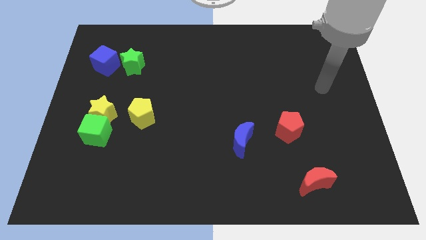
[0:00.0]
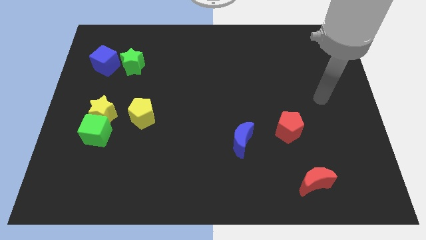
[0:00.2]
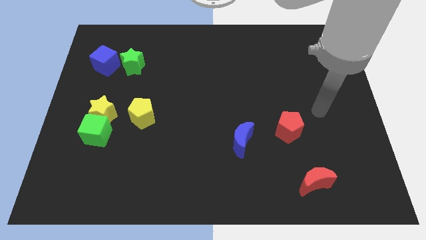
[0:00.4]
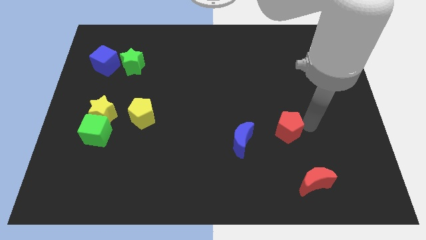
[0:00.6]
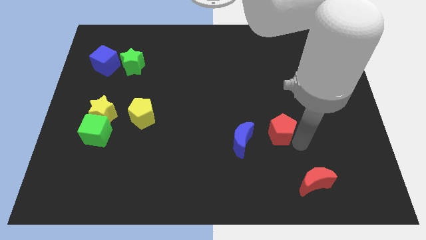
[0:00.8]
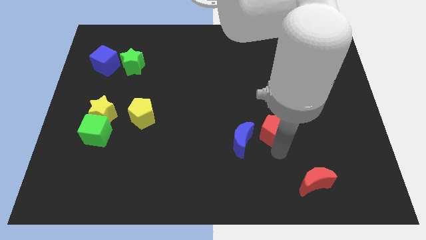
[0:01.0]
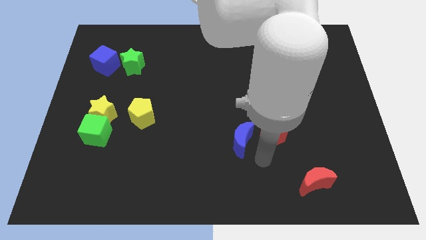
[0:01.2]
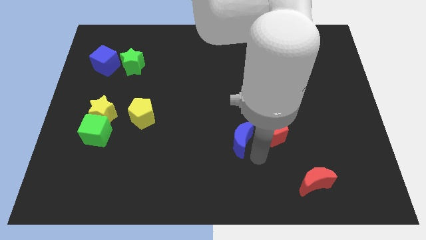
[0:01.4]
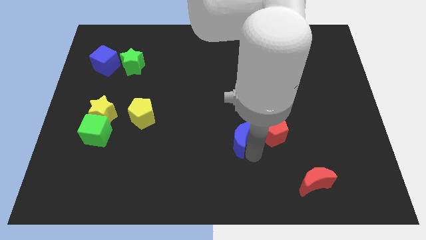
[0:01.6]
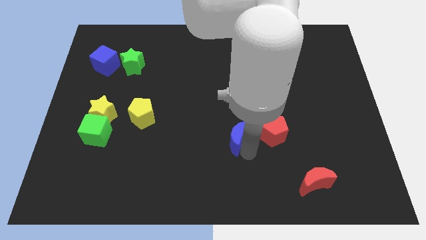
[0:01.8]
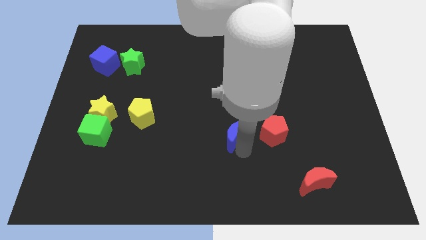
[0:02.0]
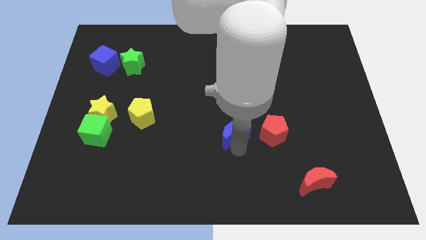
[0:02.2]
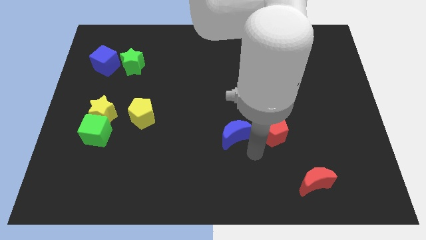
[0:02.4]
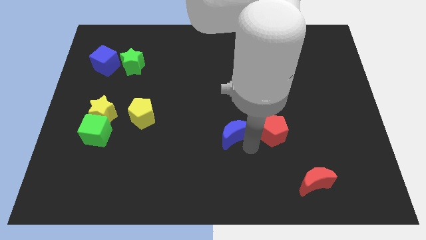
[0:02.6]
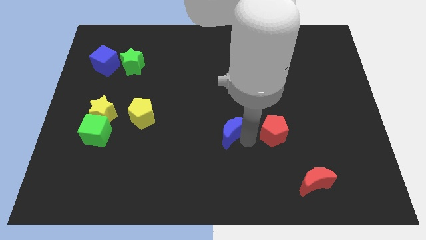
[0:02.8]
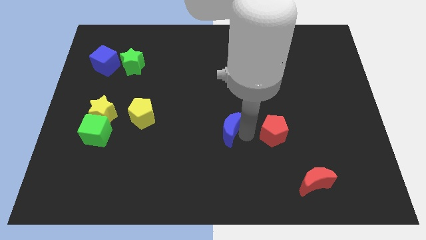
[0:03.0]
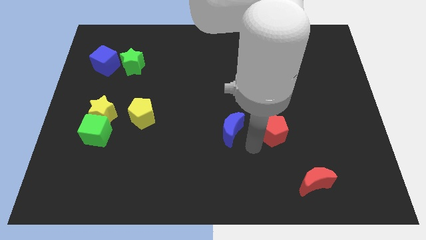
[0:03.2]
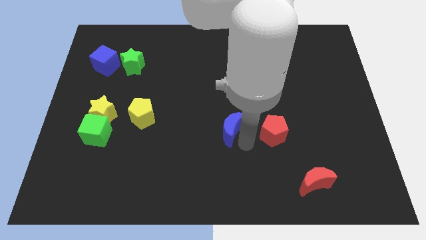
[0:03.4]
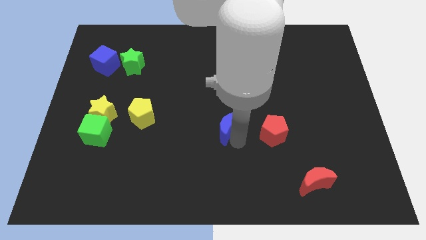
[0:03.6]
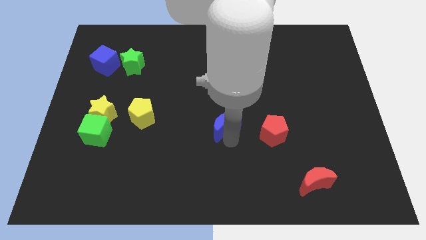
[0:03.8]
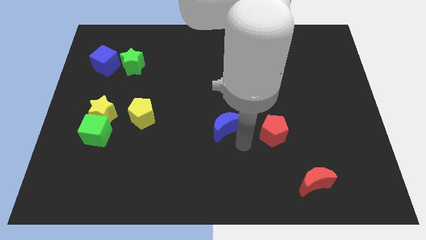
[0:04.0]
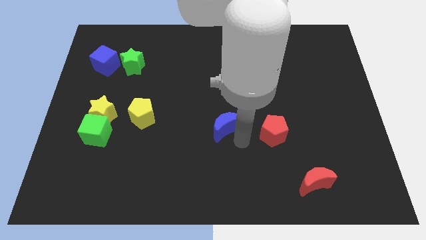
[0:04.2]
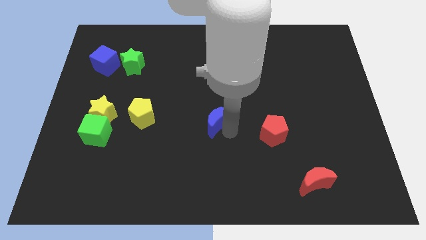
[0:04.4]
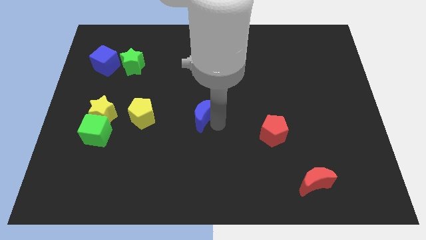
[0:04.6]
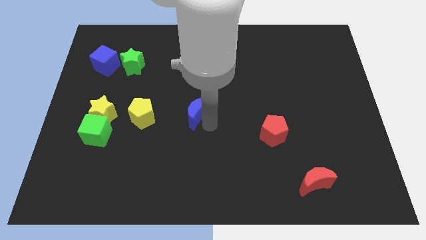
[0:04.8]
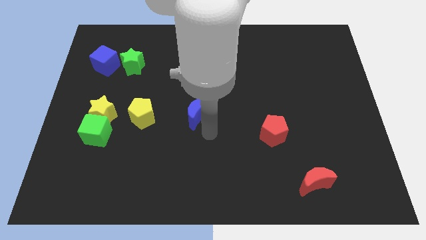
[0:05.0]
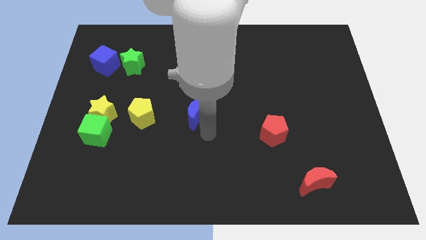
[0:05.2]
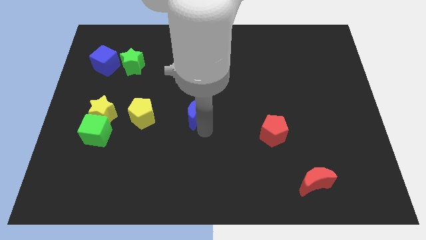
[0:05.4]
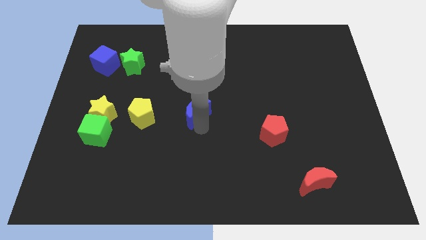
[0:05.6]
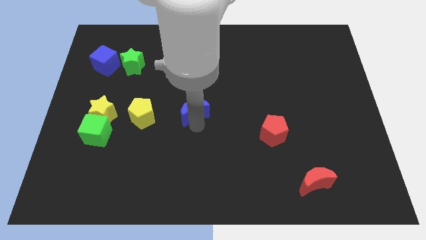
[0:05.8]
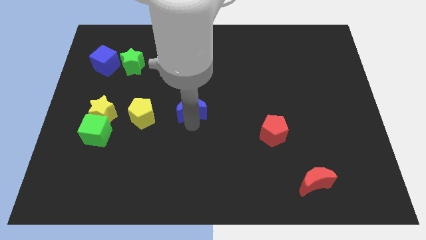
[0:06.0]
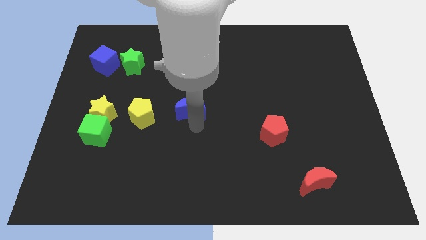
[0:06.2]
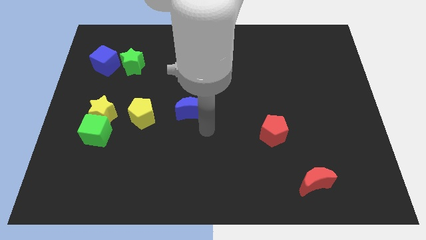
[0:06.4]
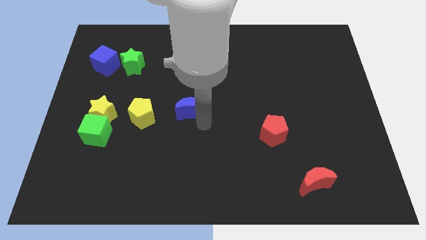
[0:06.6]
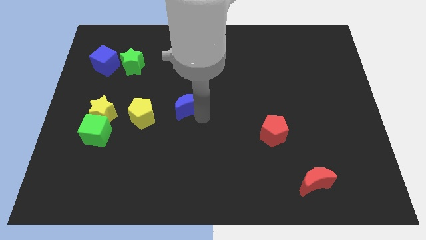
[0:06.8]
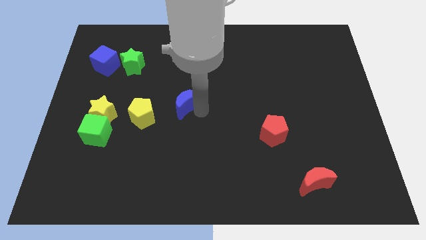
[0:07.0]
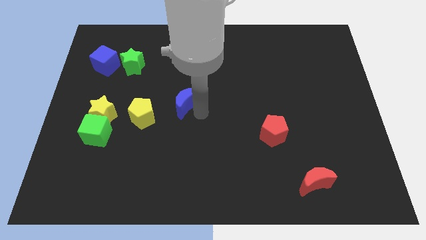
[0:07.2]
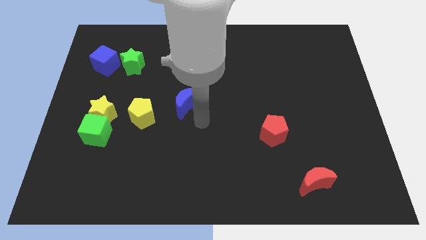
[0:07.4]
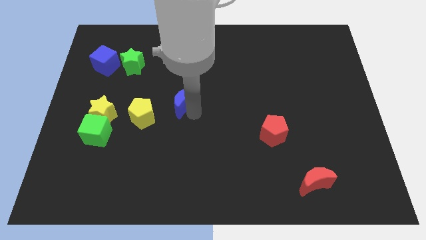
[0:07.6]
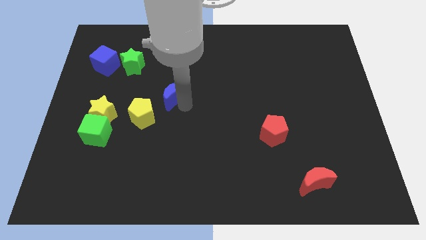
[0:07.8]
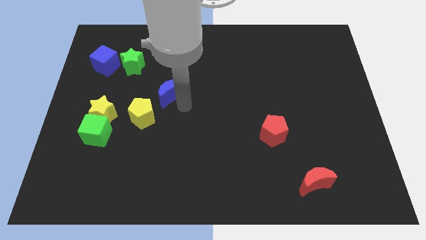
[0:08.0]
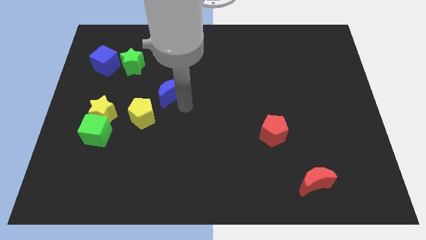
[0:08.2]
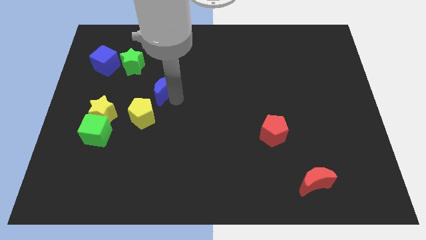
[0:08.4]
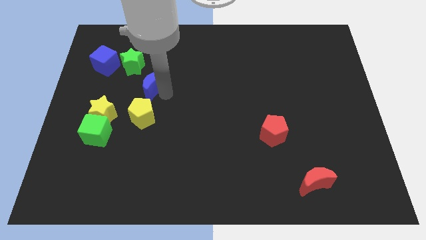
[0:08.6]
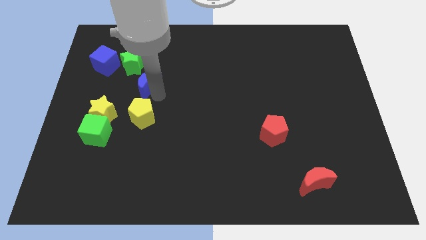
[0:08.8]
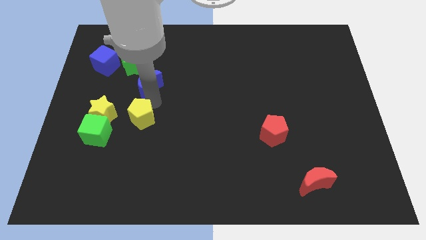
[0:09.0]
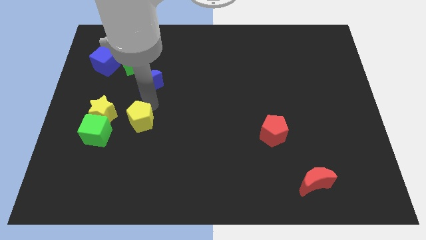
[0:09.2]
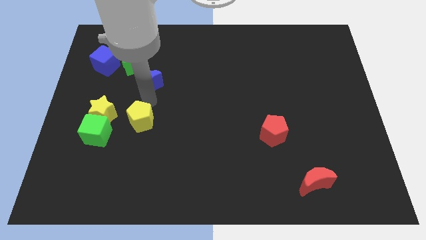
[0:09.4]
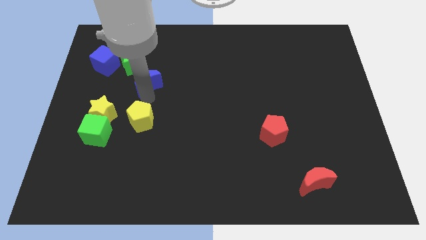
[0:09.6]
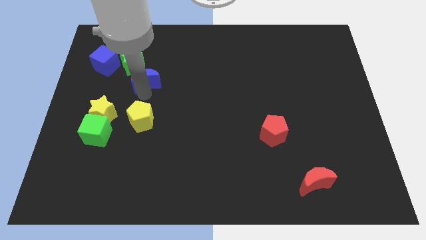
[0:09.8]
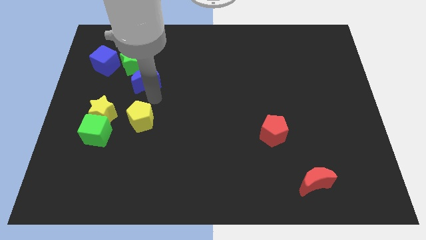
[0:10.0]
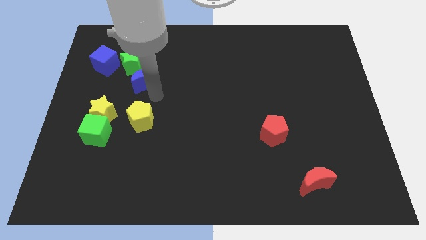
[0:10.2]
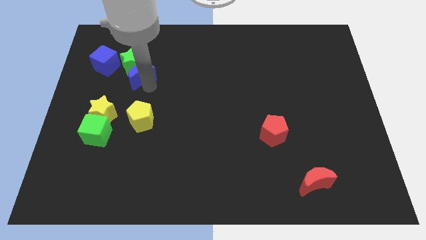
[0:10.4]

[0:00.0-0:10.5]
slide the blue moon towards the green star

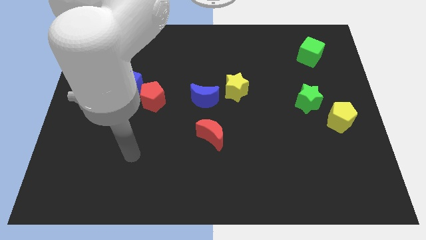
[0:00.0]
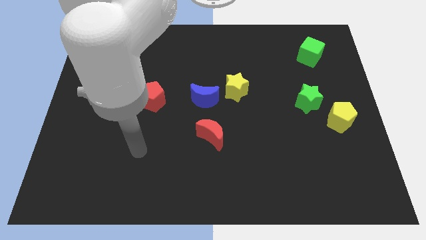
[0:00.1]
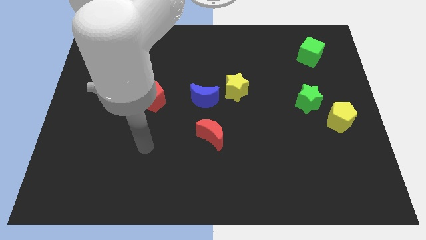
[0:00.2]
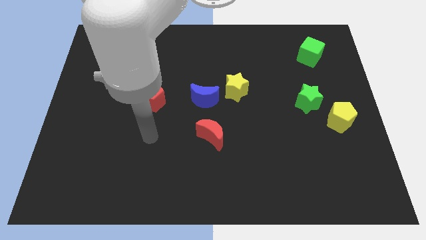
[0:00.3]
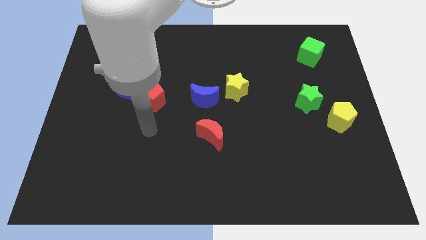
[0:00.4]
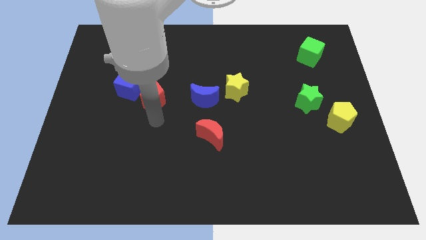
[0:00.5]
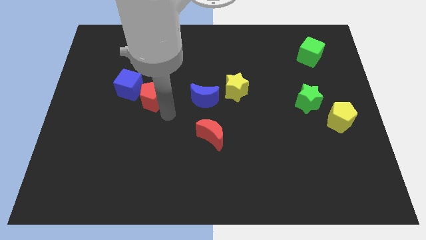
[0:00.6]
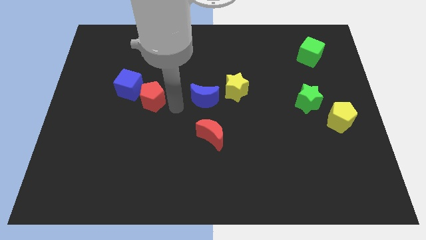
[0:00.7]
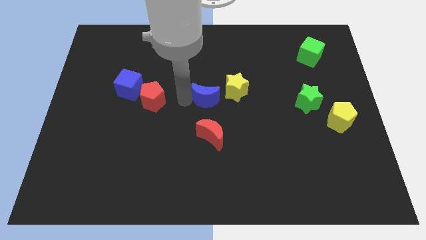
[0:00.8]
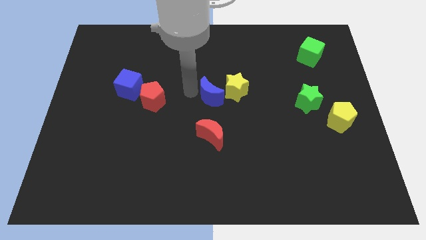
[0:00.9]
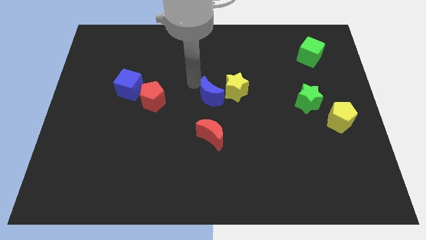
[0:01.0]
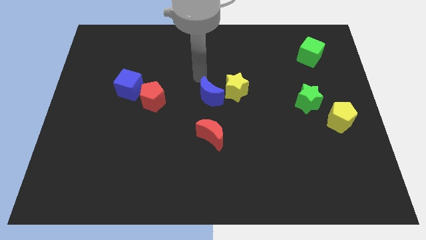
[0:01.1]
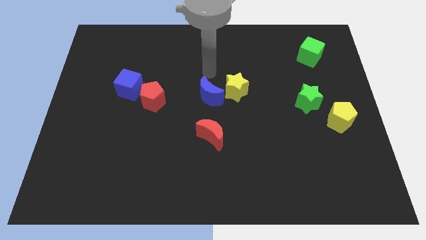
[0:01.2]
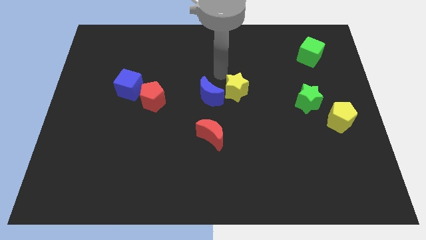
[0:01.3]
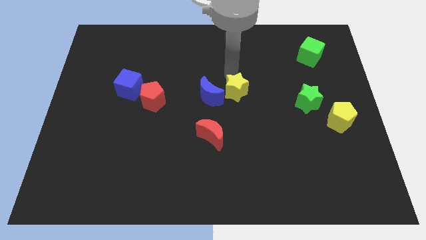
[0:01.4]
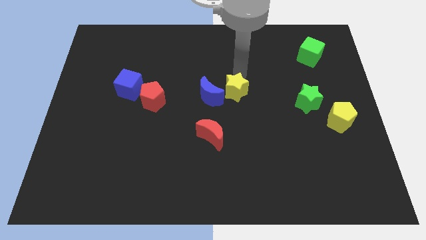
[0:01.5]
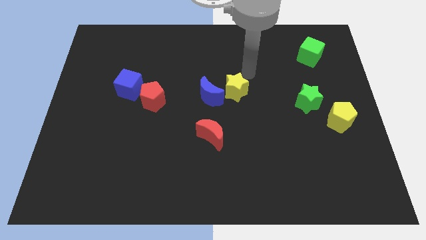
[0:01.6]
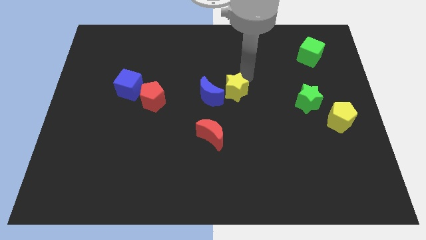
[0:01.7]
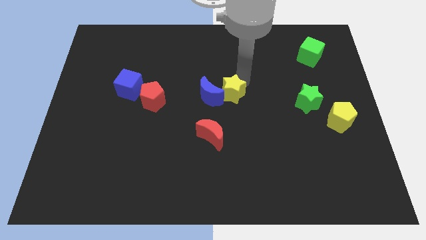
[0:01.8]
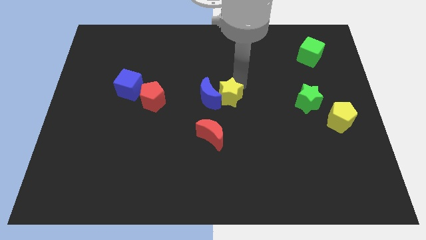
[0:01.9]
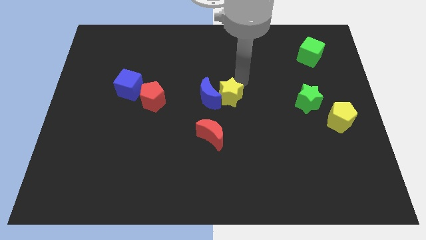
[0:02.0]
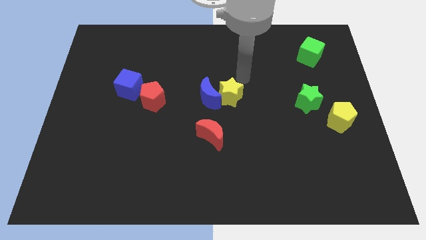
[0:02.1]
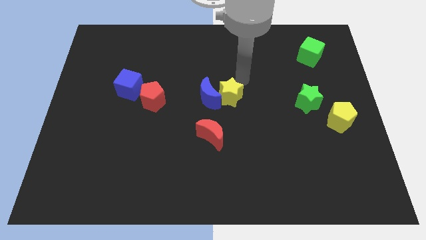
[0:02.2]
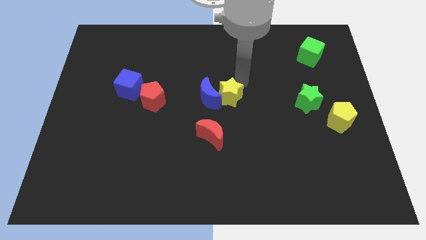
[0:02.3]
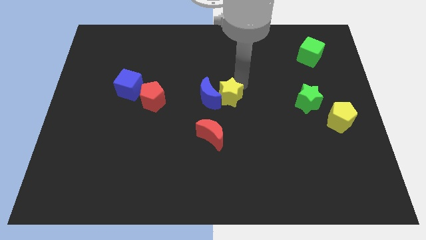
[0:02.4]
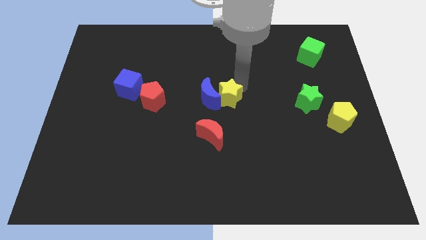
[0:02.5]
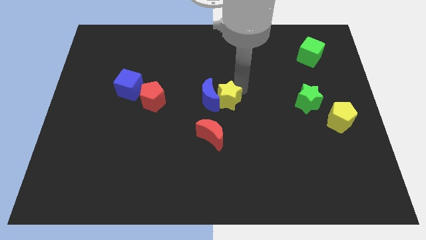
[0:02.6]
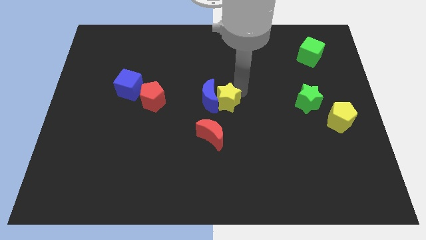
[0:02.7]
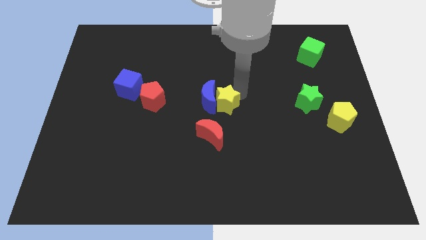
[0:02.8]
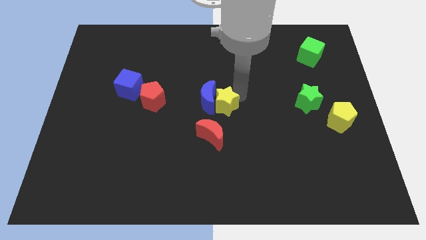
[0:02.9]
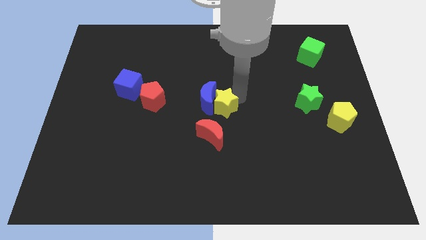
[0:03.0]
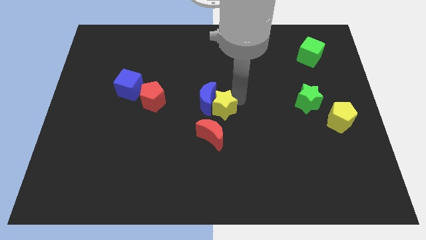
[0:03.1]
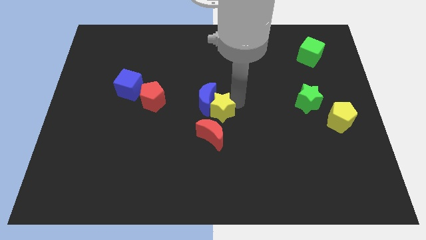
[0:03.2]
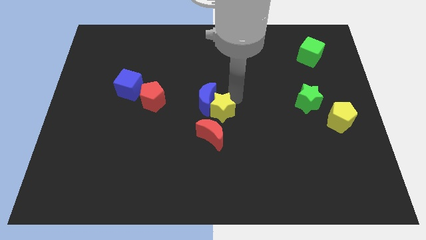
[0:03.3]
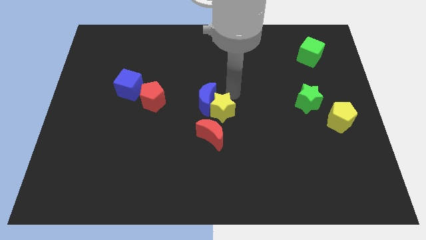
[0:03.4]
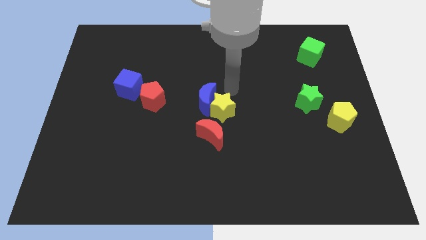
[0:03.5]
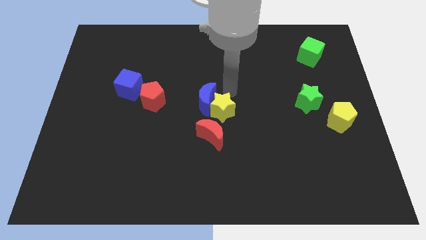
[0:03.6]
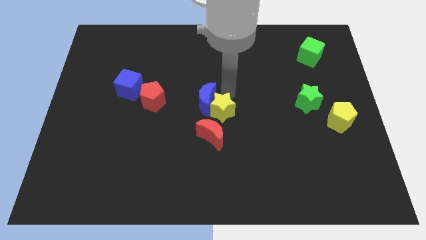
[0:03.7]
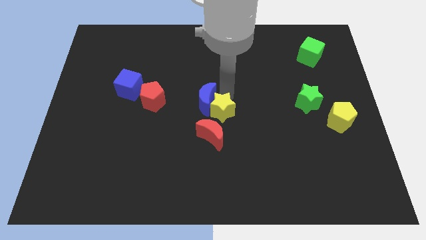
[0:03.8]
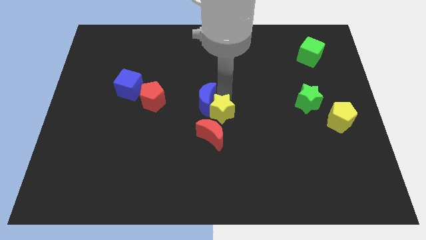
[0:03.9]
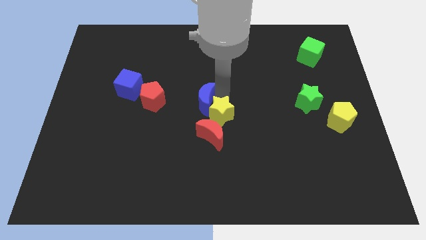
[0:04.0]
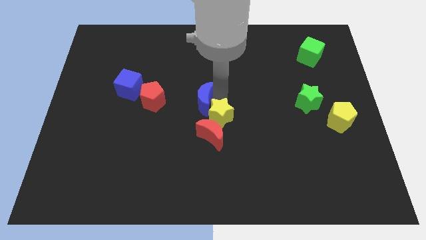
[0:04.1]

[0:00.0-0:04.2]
slide the yellow star to the red moon
